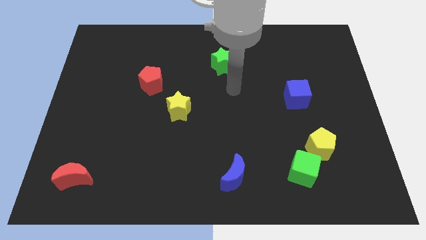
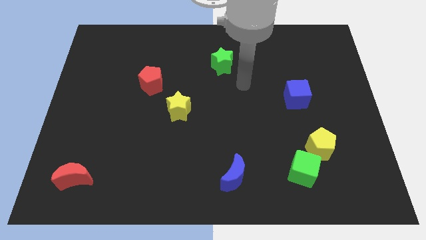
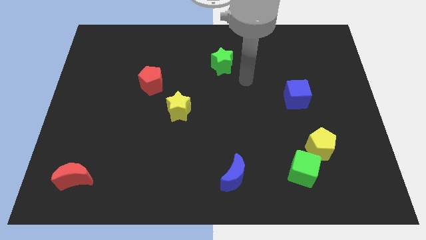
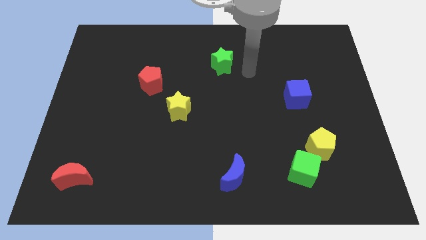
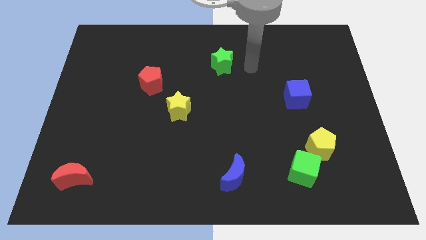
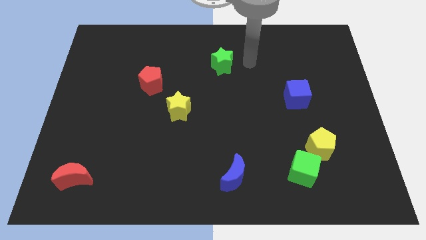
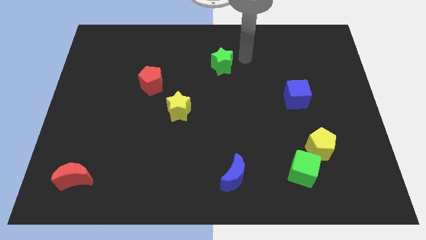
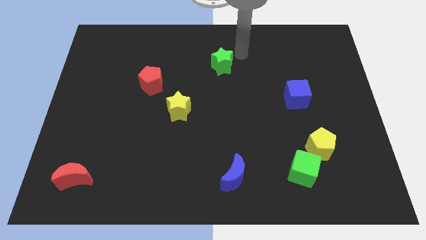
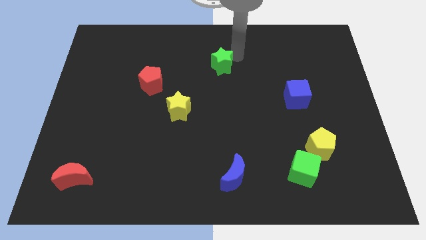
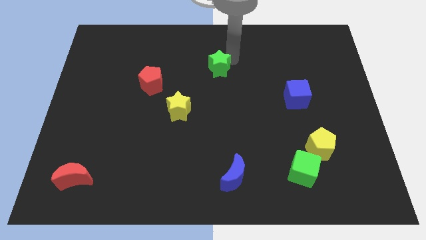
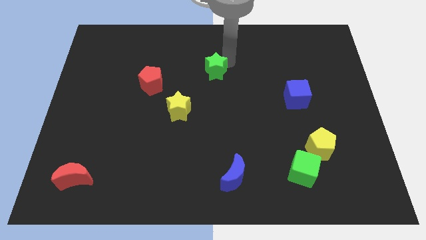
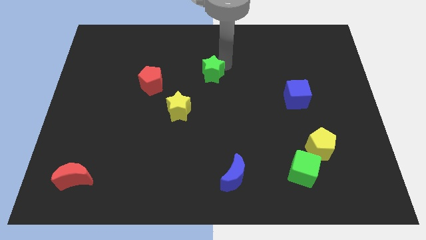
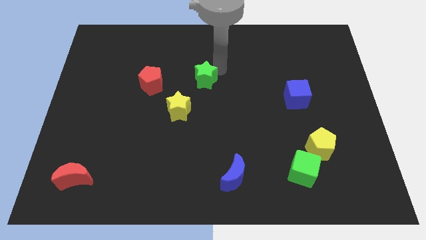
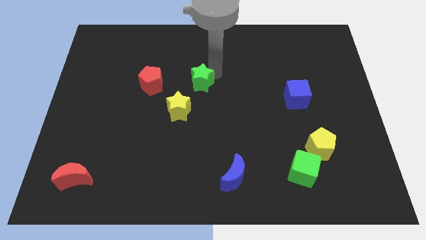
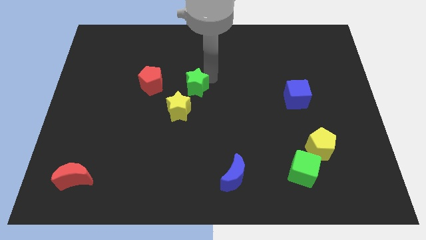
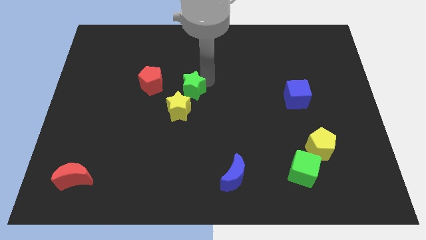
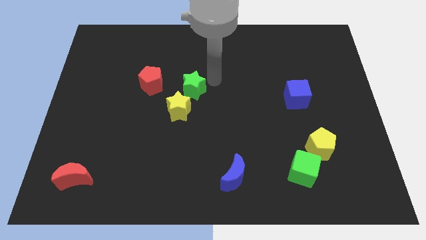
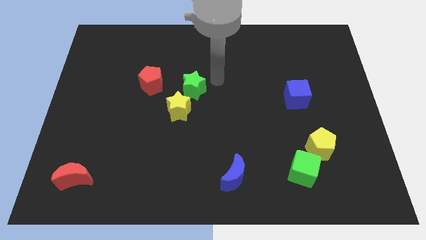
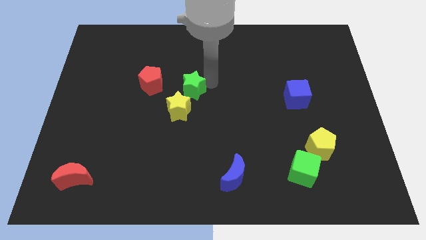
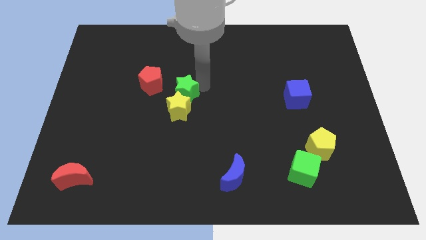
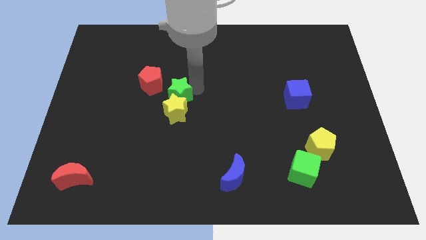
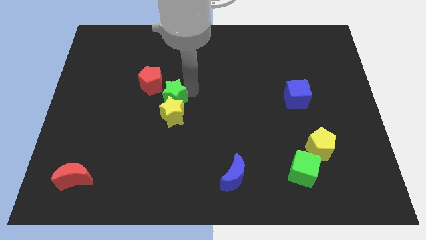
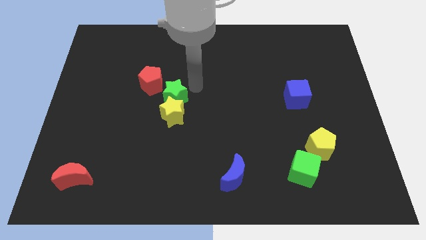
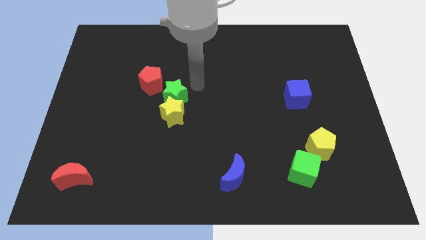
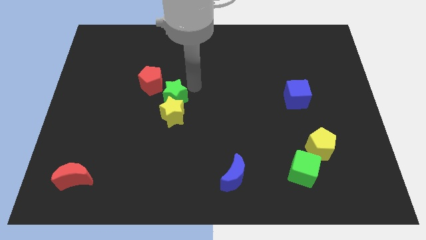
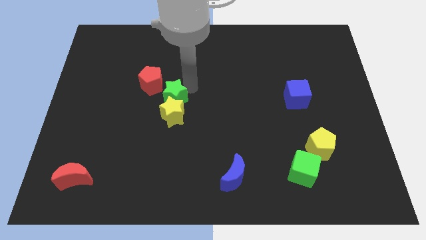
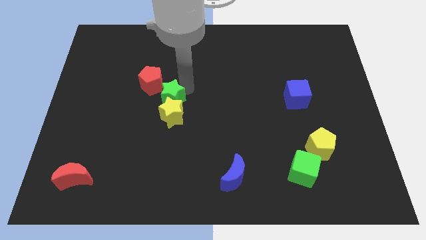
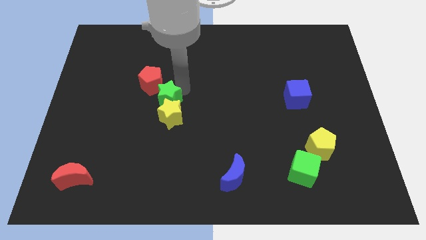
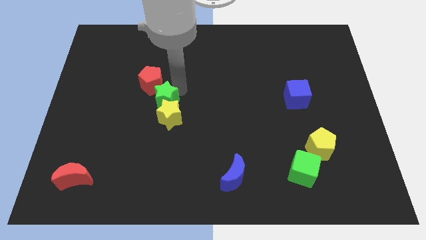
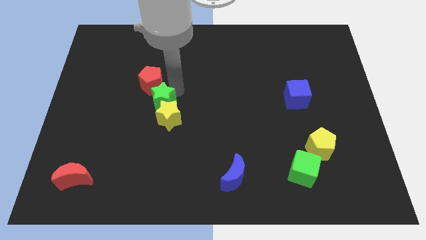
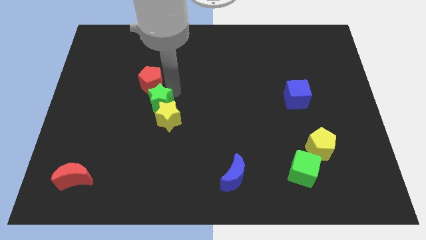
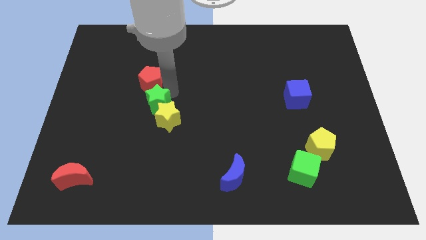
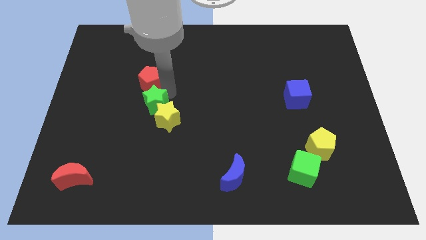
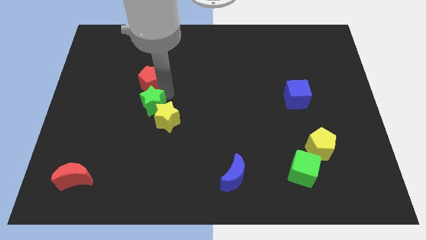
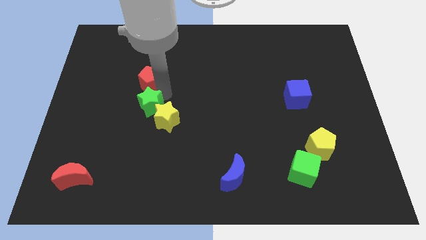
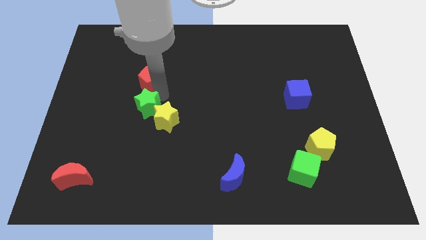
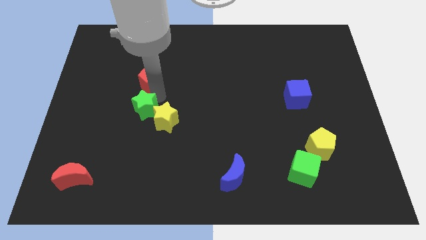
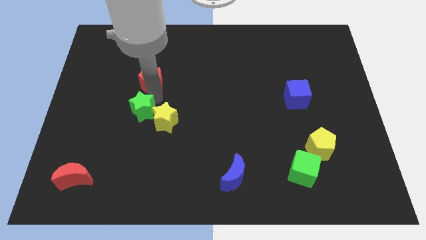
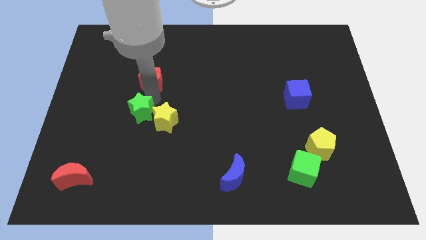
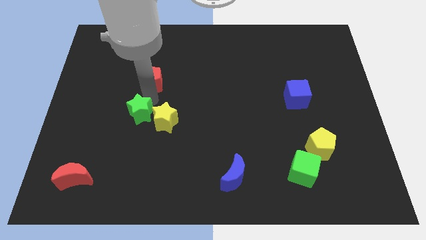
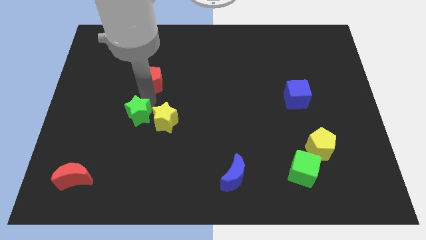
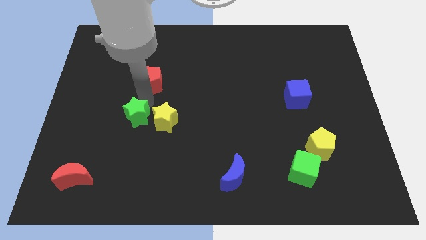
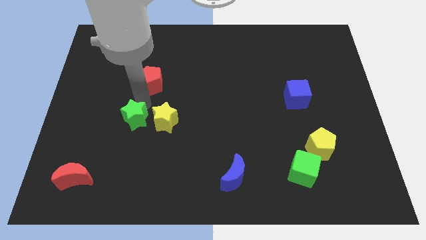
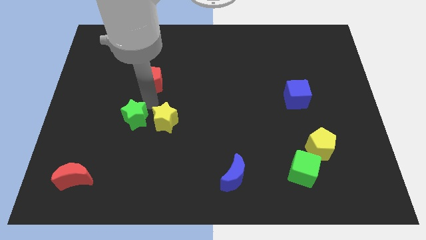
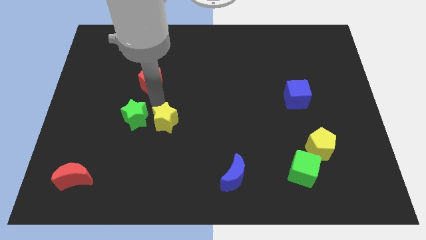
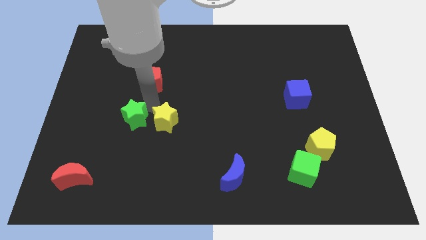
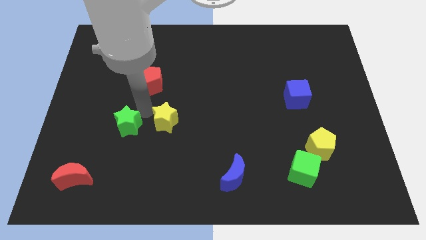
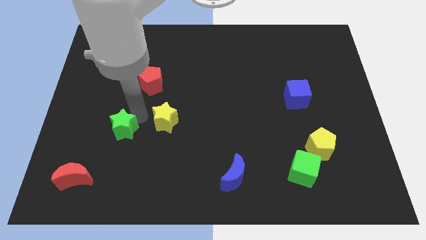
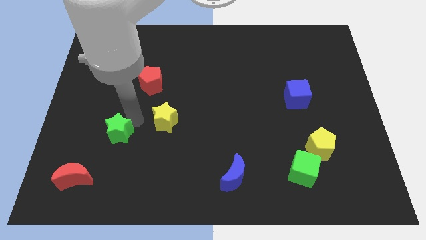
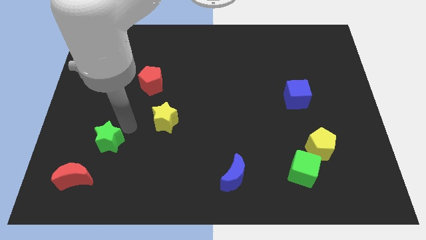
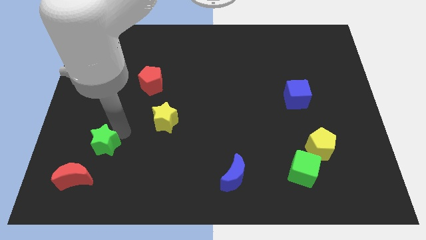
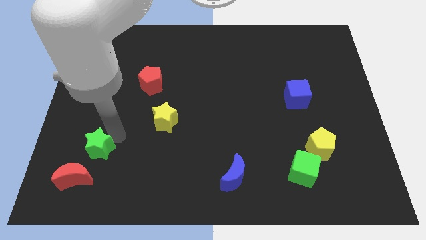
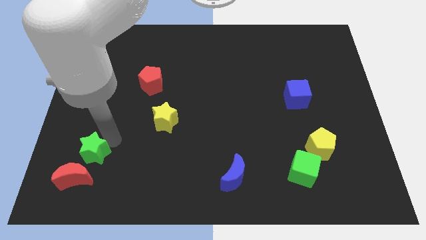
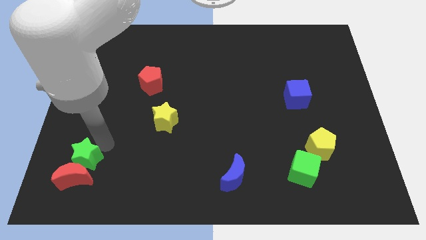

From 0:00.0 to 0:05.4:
push the green star next to the red moon

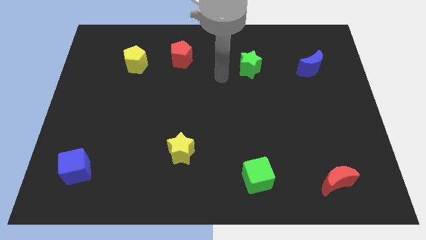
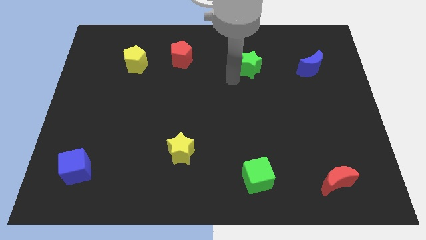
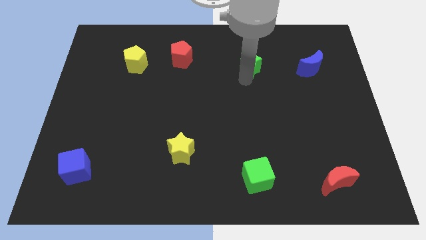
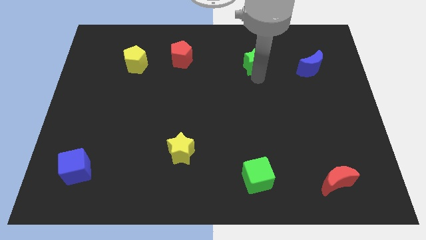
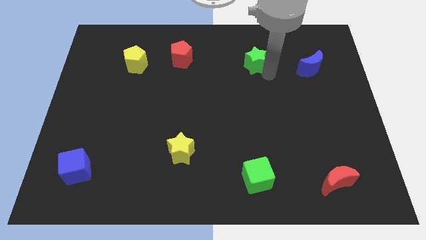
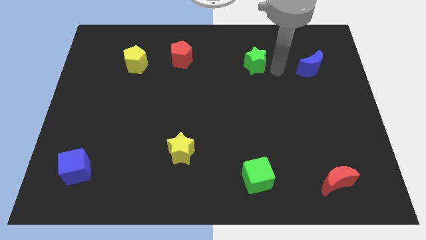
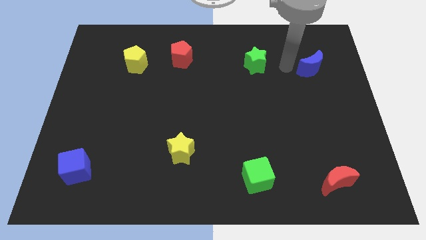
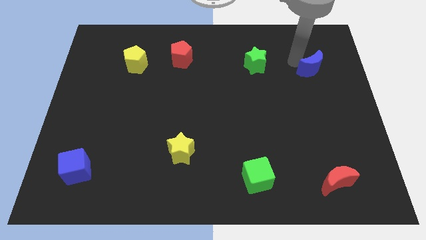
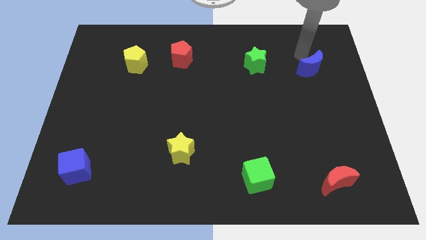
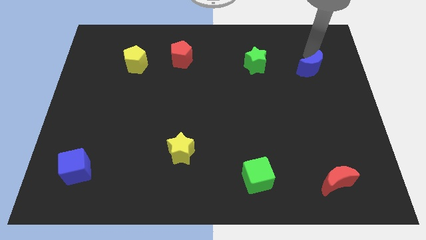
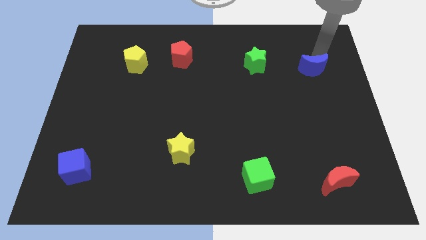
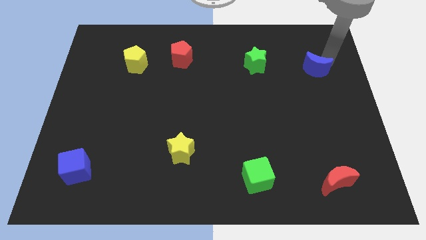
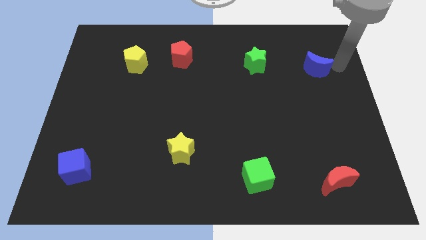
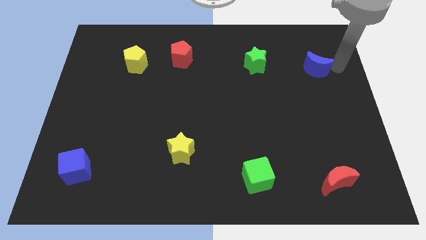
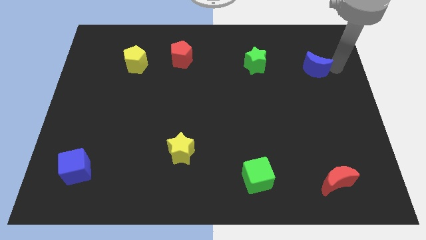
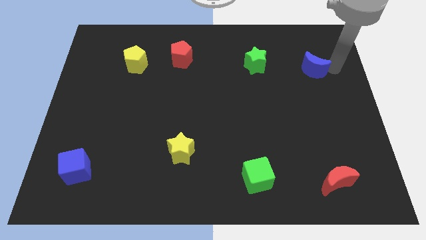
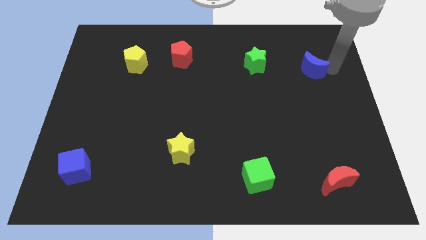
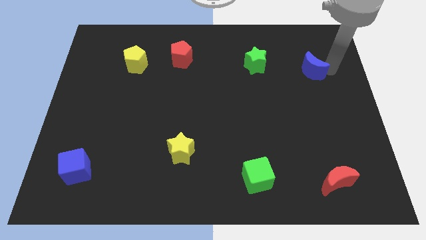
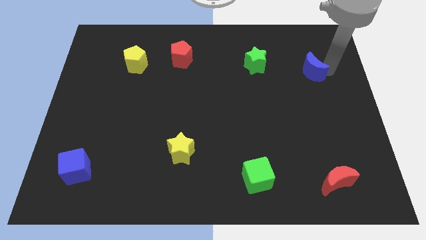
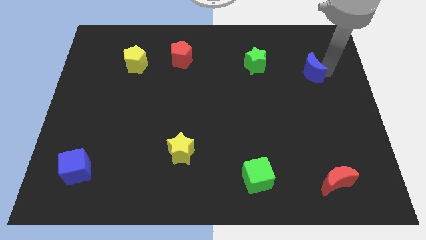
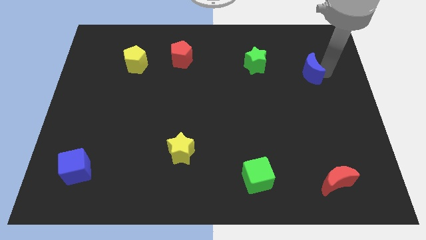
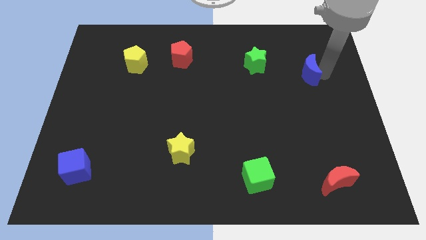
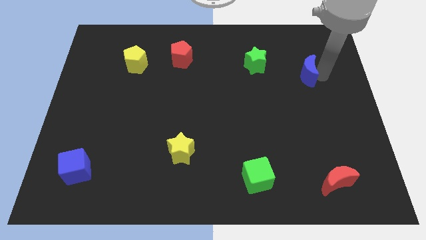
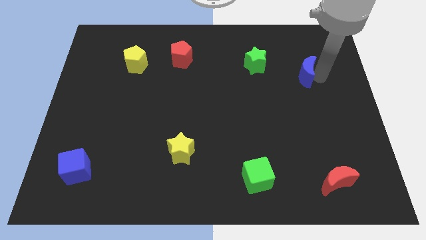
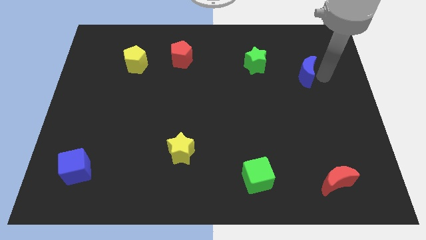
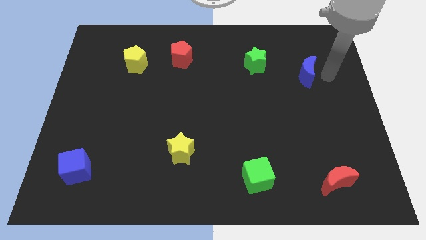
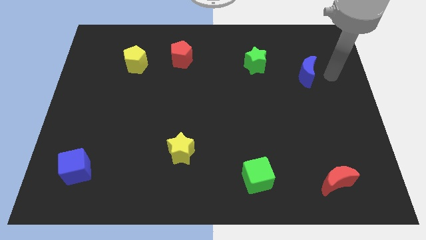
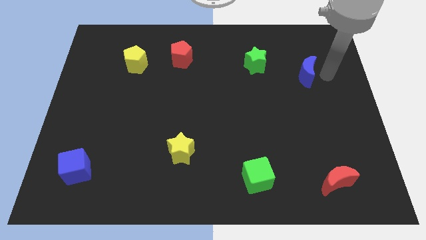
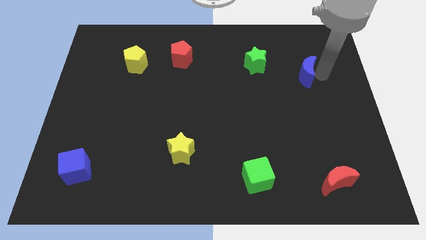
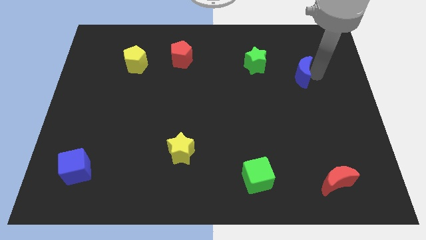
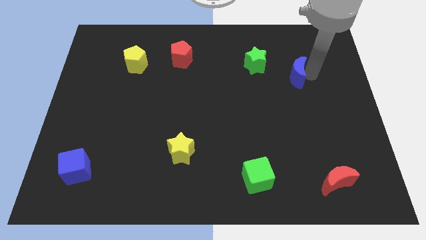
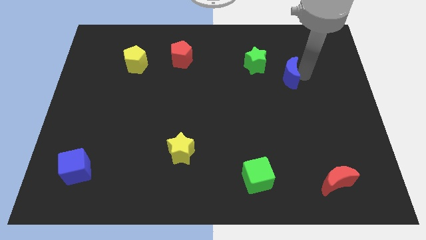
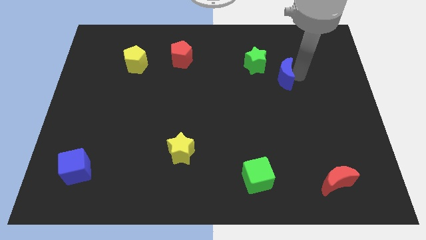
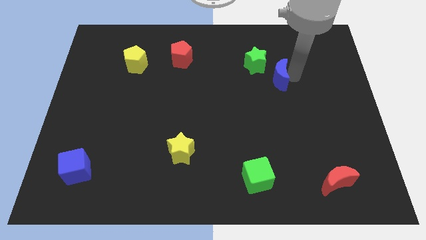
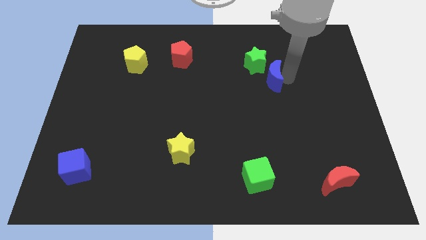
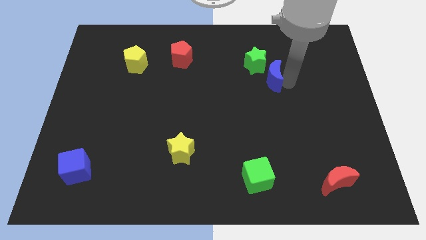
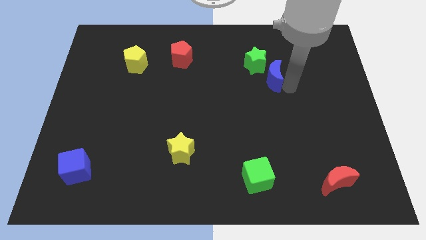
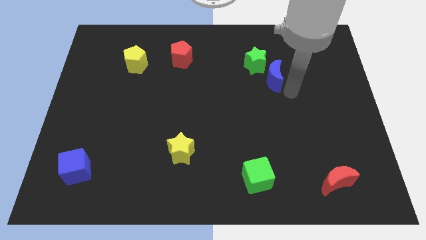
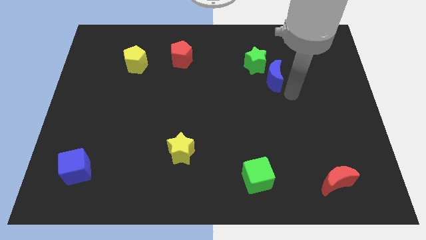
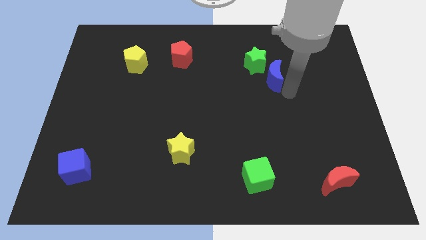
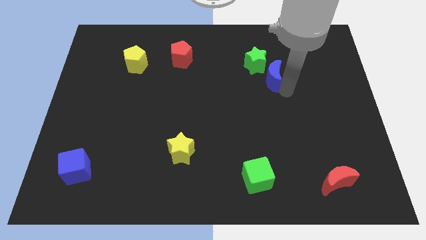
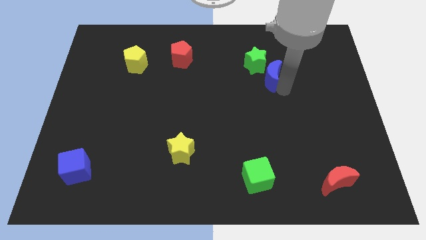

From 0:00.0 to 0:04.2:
slide the blue moon towards the green star
